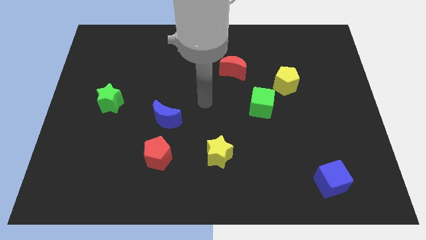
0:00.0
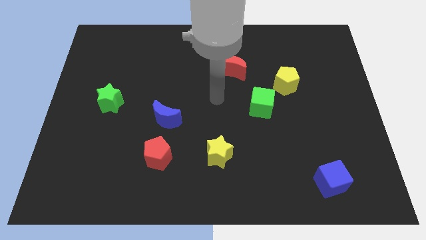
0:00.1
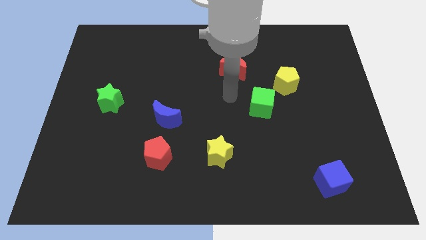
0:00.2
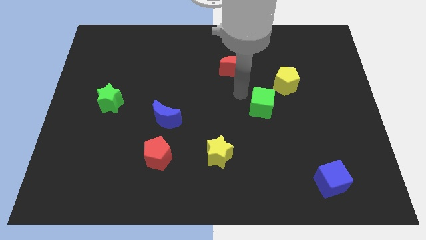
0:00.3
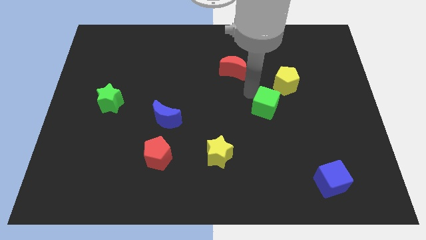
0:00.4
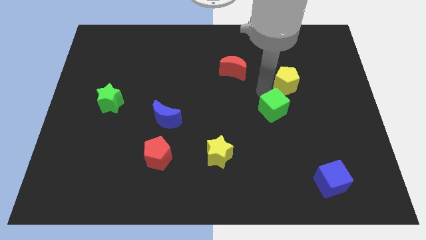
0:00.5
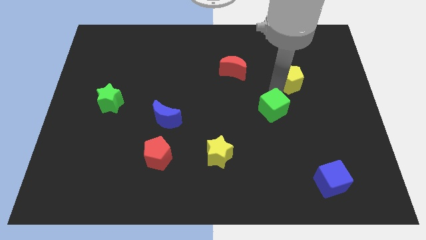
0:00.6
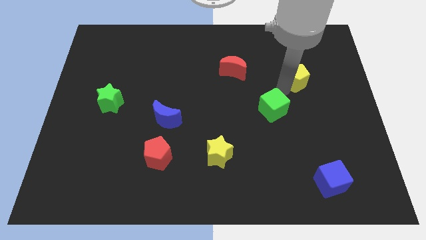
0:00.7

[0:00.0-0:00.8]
move the green cube away from the yellow pentagon

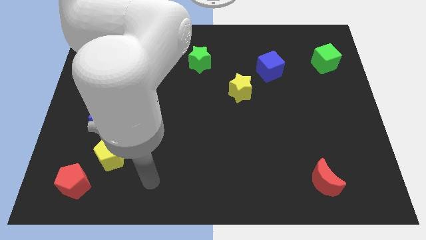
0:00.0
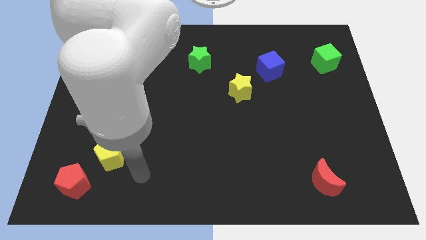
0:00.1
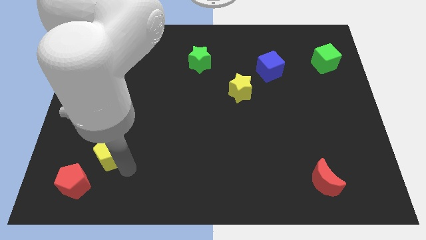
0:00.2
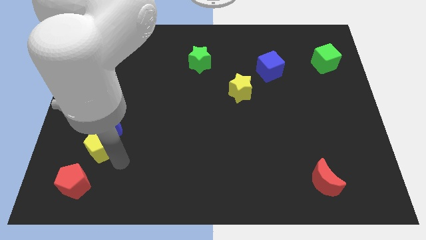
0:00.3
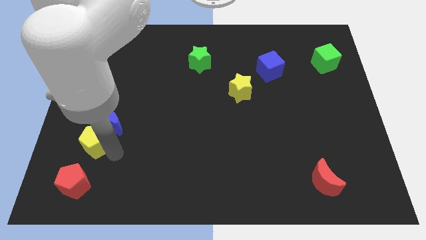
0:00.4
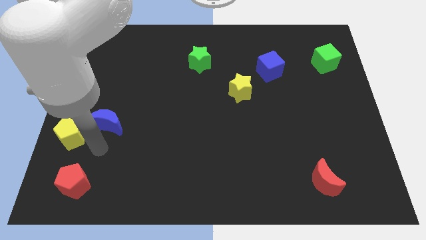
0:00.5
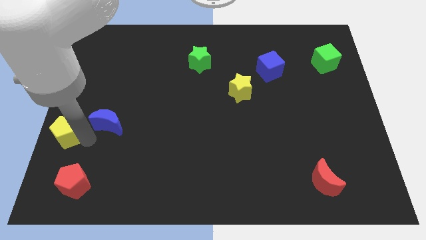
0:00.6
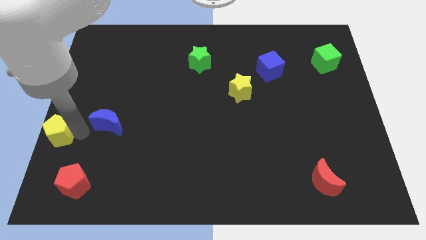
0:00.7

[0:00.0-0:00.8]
pull the blue moon apart from the yellow pentagon

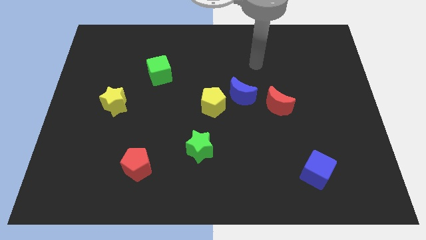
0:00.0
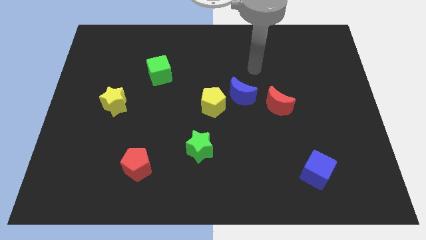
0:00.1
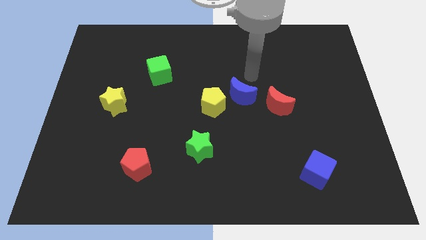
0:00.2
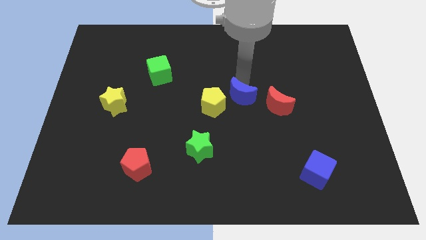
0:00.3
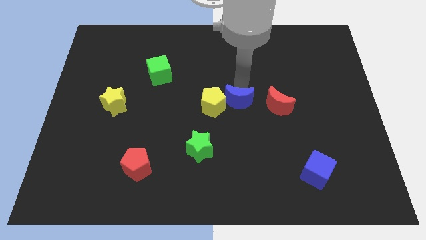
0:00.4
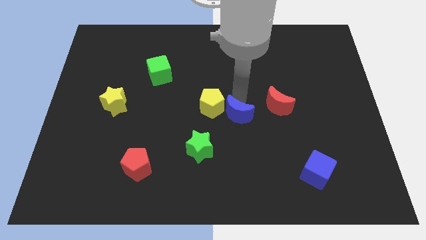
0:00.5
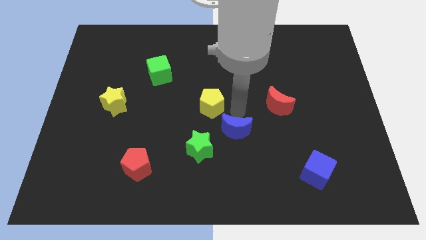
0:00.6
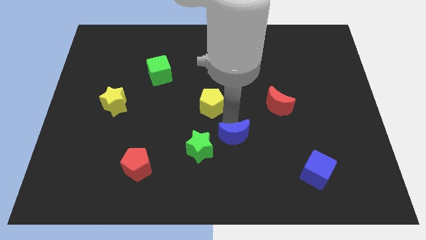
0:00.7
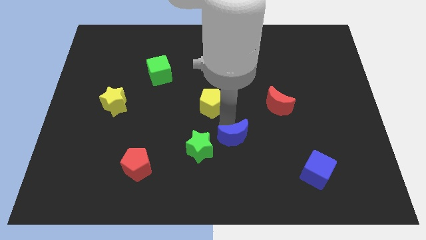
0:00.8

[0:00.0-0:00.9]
move the yellow pentagon away from the blue moon

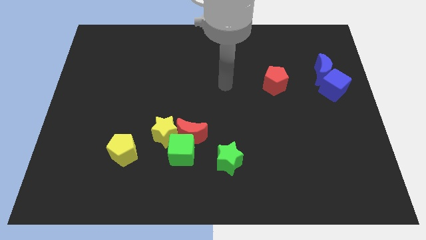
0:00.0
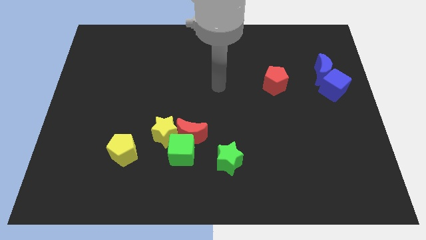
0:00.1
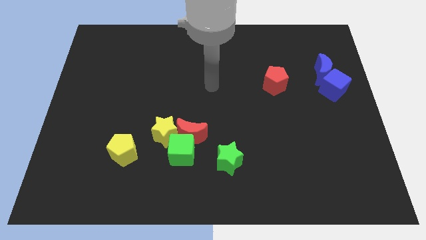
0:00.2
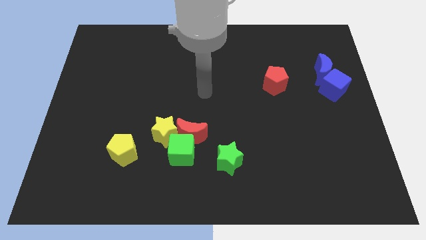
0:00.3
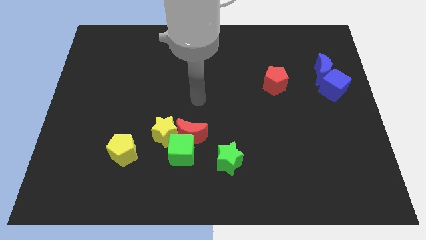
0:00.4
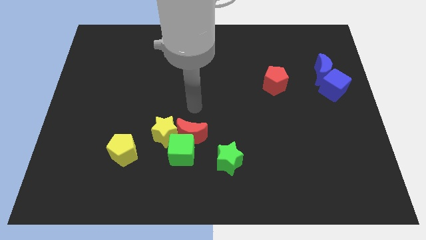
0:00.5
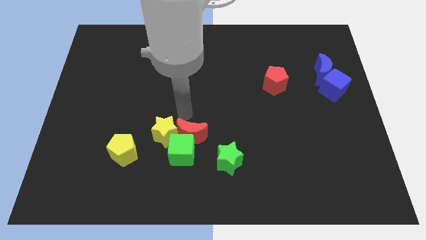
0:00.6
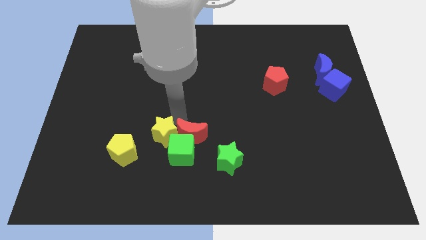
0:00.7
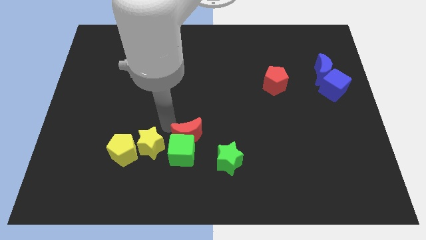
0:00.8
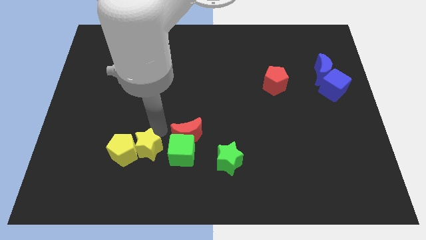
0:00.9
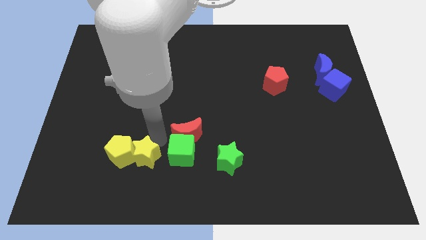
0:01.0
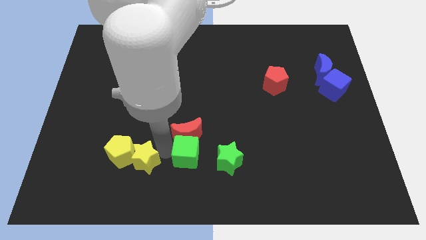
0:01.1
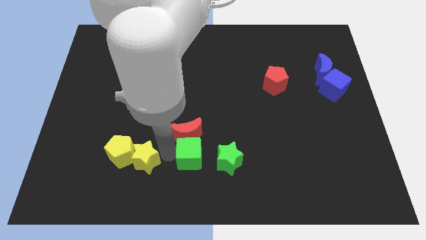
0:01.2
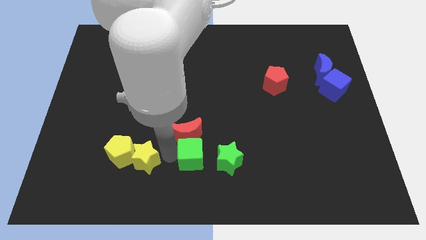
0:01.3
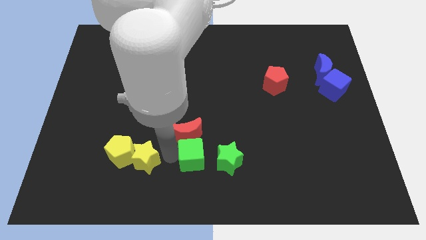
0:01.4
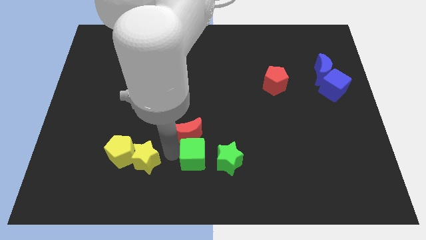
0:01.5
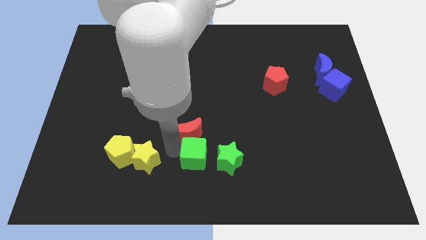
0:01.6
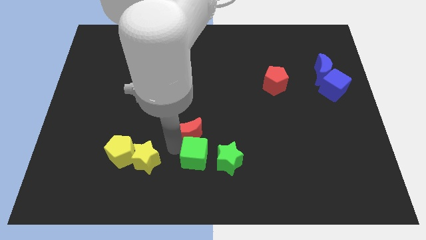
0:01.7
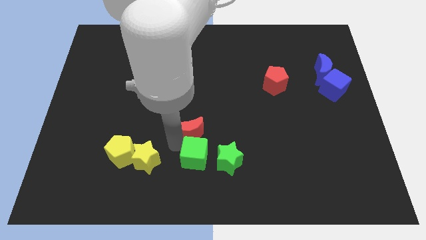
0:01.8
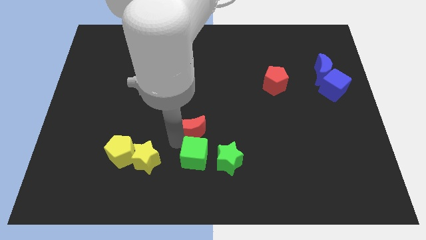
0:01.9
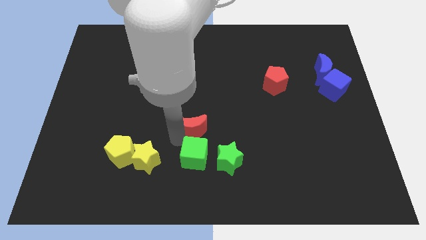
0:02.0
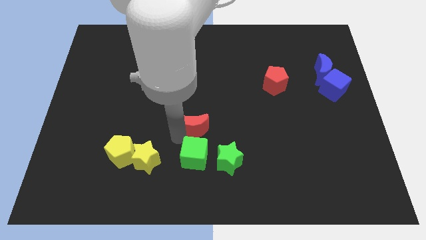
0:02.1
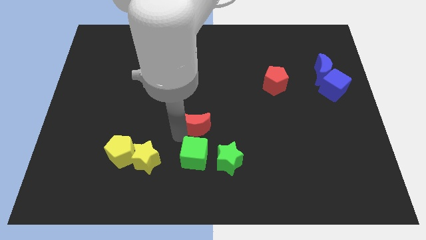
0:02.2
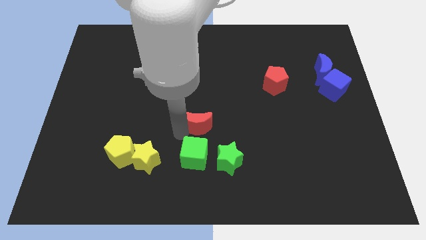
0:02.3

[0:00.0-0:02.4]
separate the red moon from the green cube and yellow star

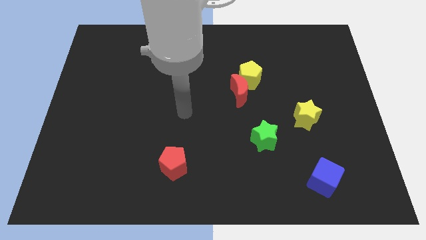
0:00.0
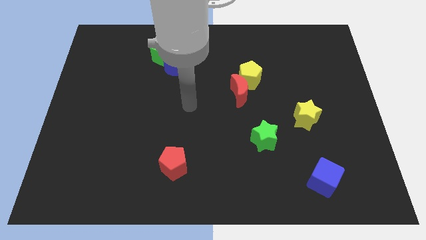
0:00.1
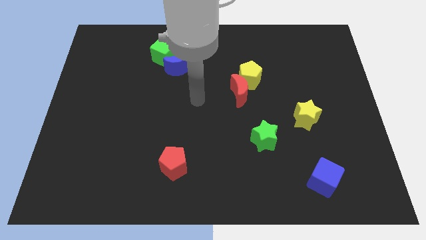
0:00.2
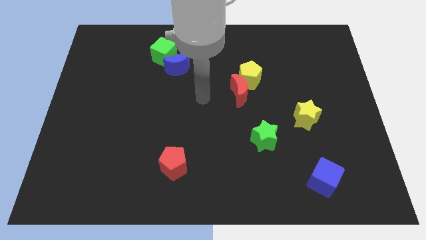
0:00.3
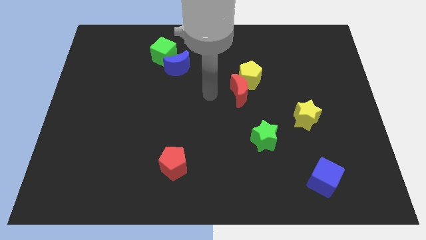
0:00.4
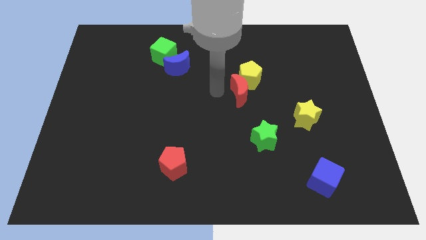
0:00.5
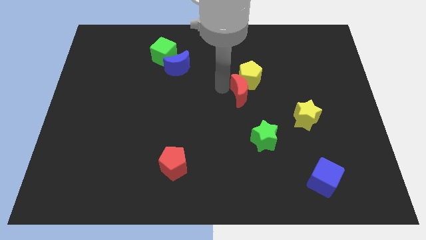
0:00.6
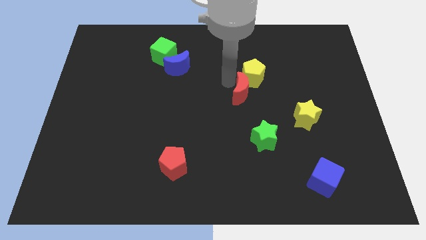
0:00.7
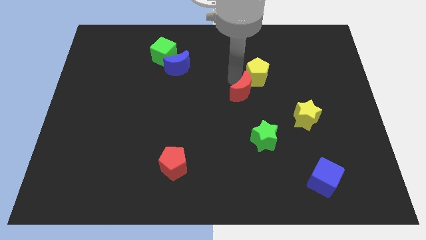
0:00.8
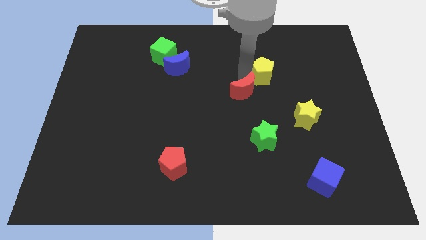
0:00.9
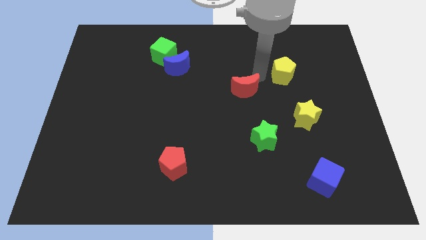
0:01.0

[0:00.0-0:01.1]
move the red moon away from the yellow pentagon

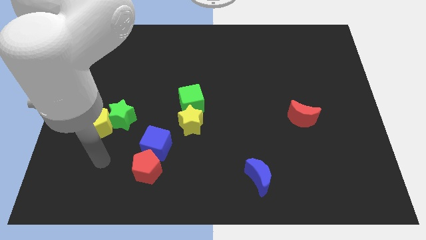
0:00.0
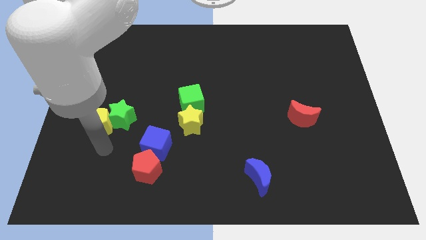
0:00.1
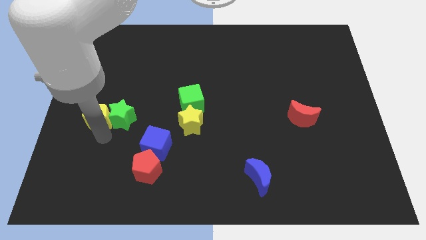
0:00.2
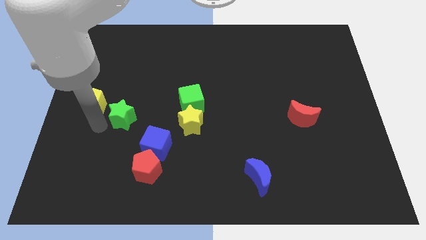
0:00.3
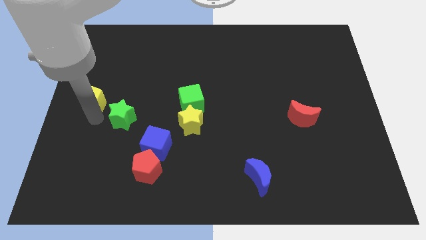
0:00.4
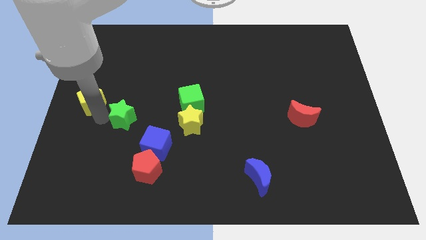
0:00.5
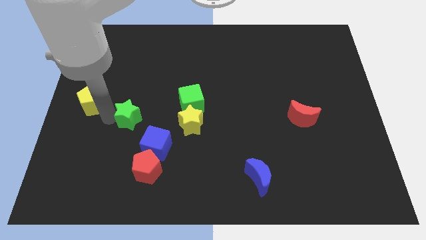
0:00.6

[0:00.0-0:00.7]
move the green star away from the yellow pentagon

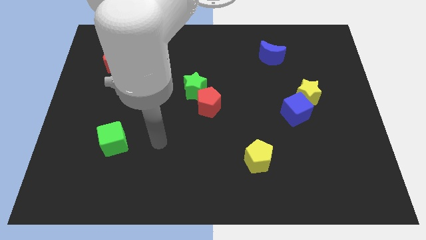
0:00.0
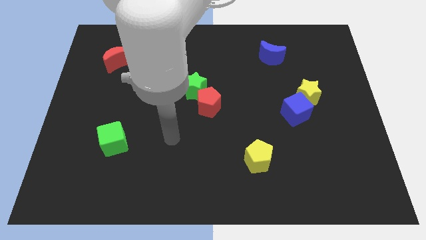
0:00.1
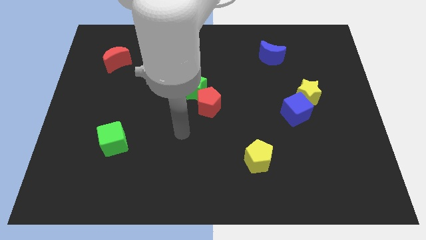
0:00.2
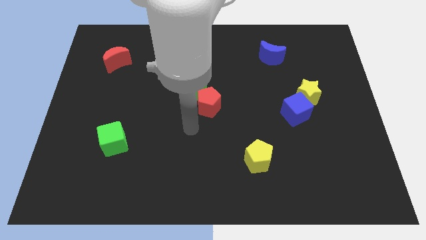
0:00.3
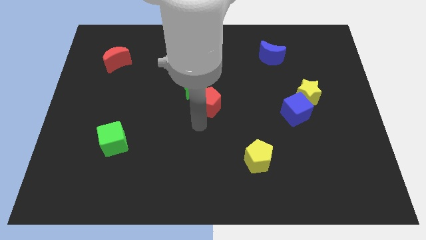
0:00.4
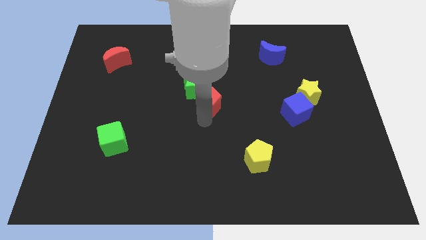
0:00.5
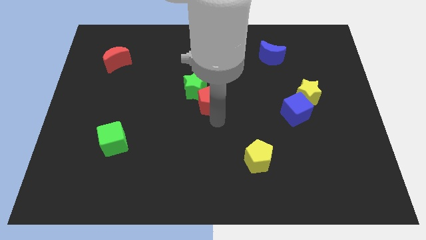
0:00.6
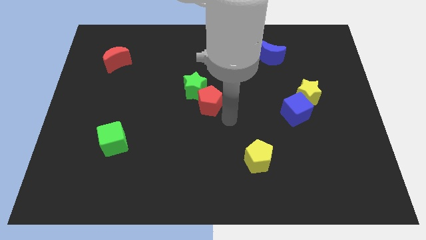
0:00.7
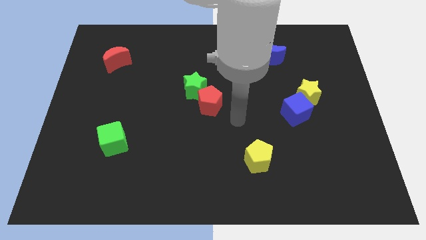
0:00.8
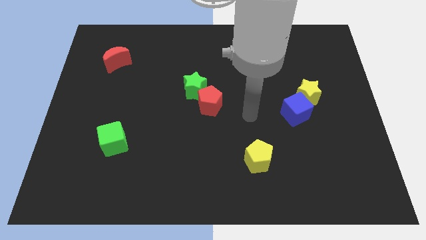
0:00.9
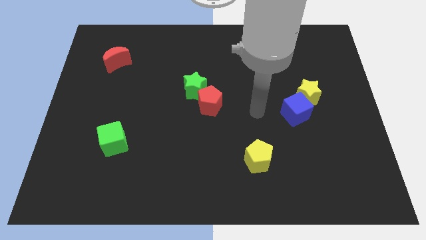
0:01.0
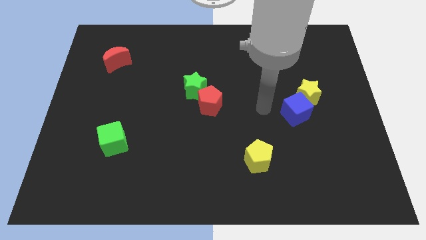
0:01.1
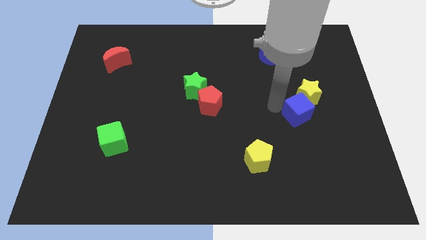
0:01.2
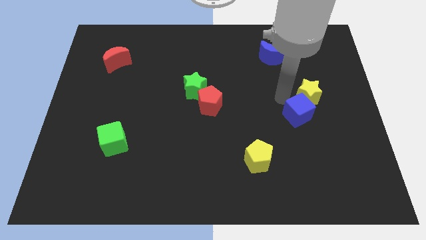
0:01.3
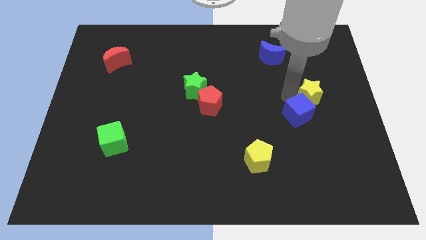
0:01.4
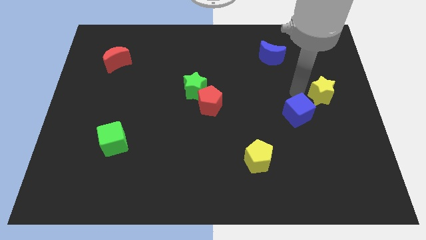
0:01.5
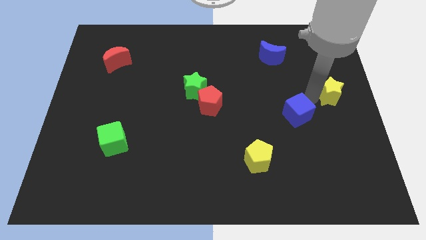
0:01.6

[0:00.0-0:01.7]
separate the blue cube from the yellow star

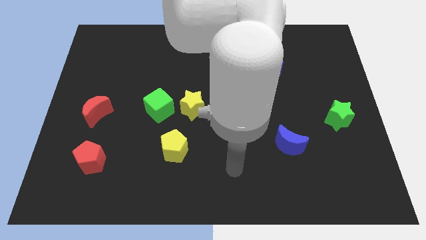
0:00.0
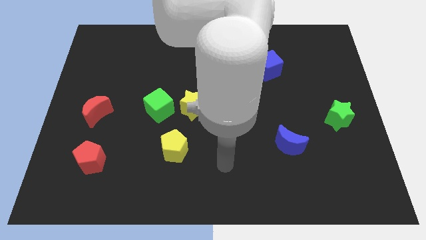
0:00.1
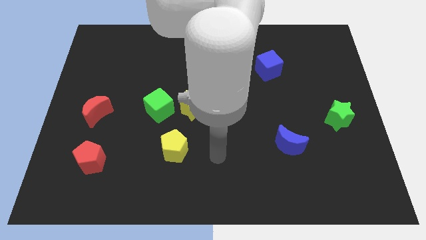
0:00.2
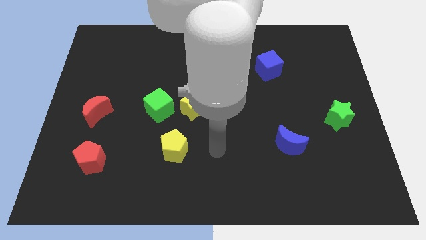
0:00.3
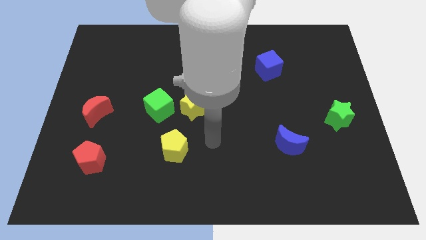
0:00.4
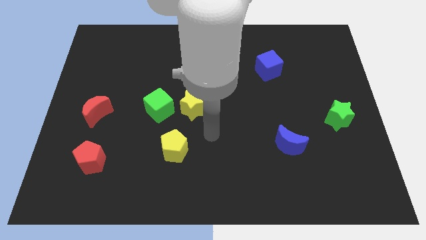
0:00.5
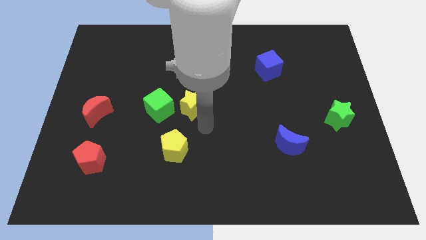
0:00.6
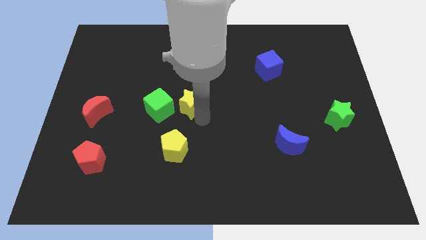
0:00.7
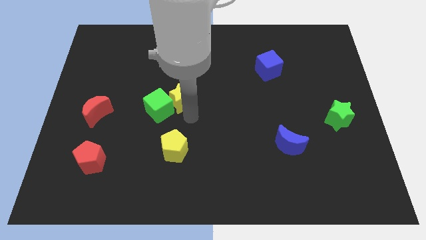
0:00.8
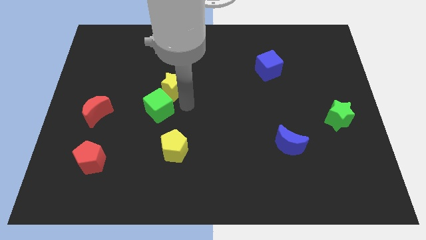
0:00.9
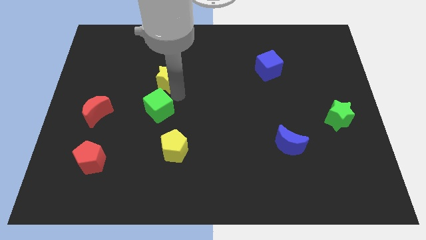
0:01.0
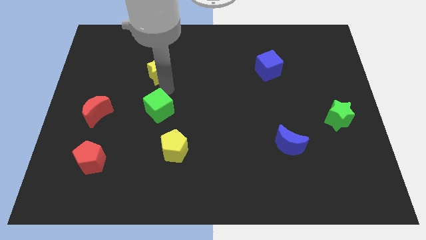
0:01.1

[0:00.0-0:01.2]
pull the green cube apart from the yellow star
